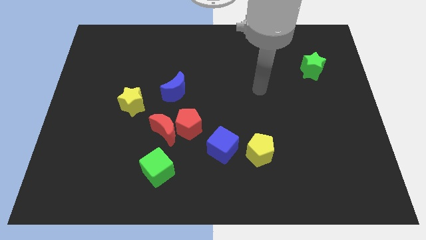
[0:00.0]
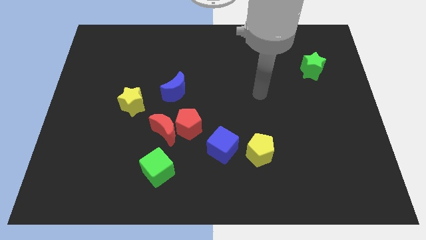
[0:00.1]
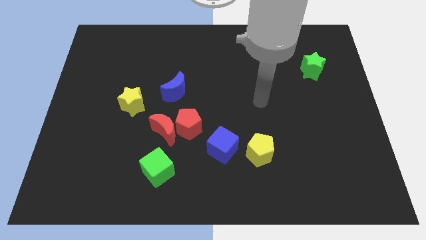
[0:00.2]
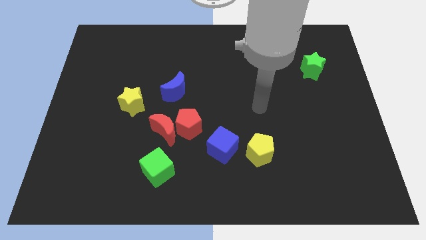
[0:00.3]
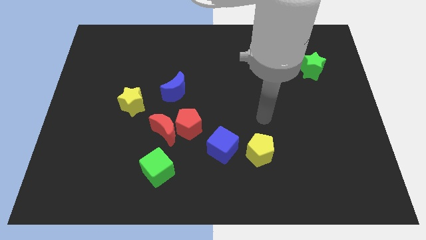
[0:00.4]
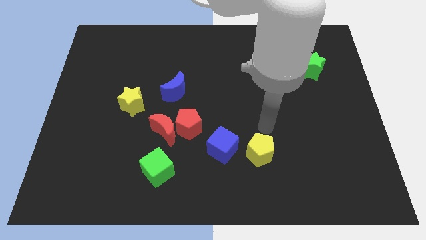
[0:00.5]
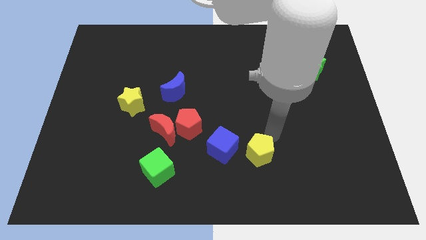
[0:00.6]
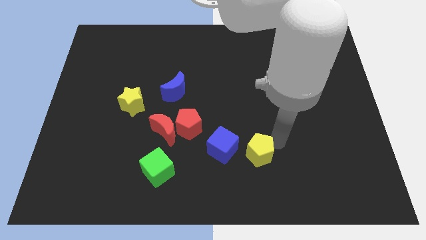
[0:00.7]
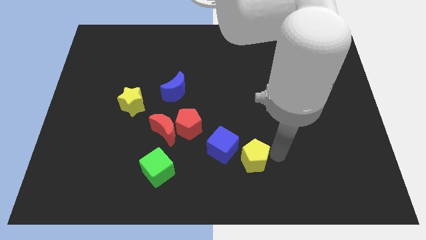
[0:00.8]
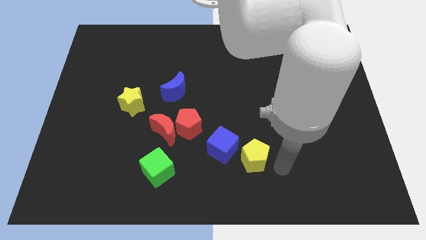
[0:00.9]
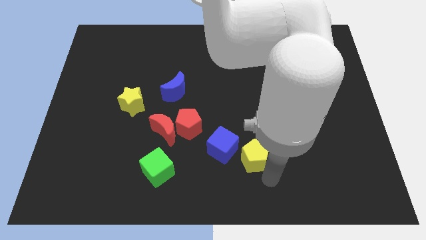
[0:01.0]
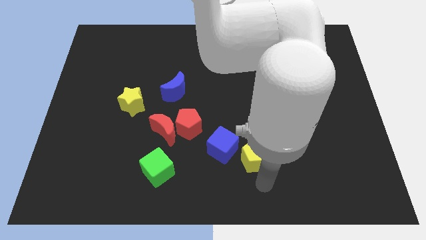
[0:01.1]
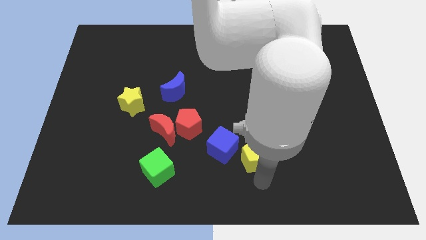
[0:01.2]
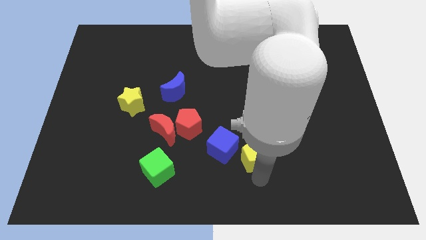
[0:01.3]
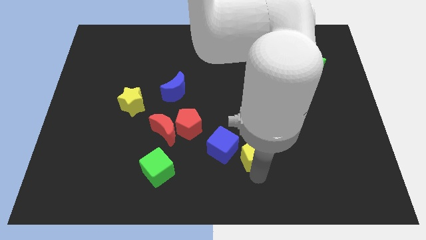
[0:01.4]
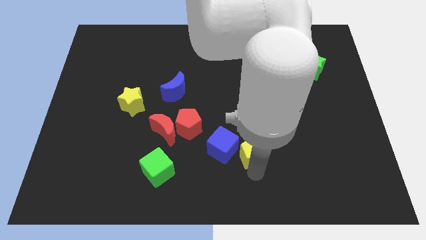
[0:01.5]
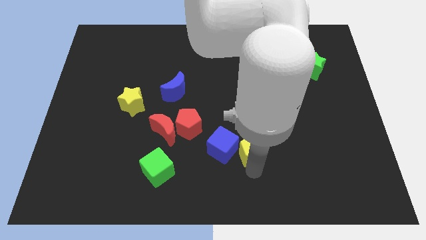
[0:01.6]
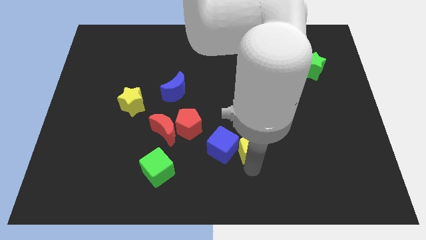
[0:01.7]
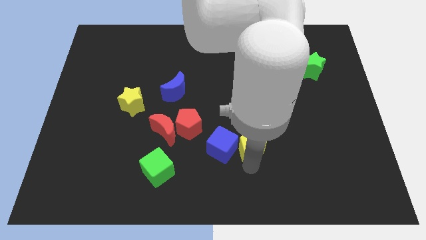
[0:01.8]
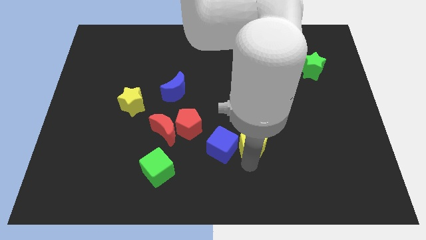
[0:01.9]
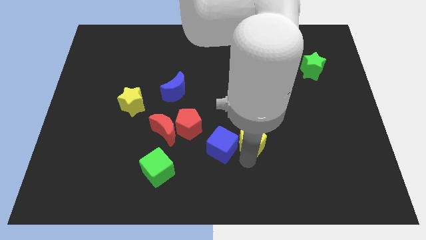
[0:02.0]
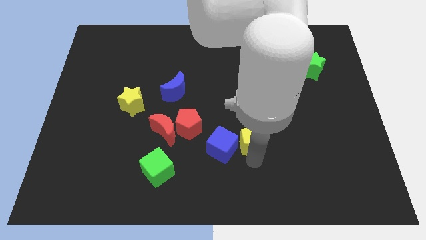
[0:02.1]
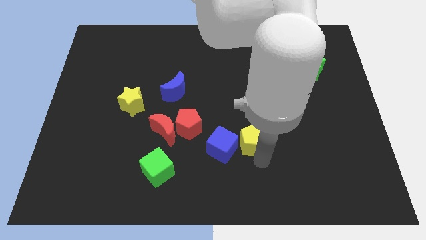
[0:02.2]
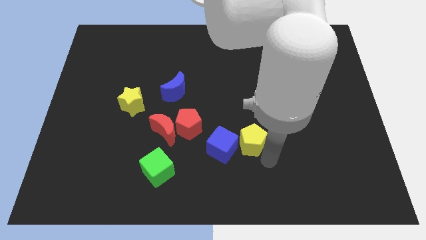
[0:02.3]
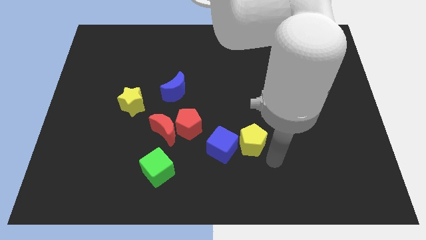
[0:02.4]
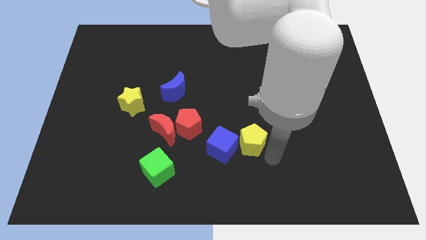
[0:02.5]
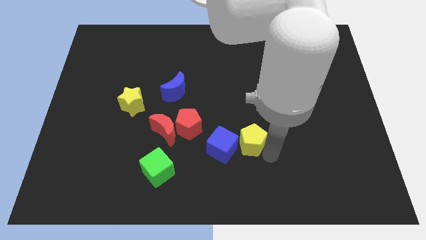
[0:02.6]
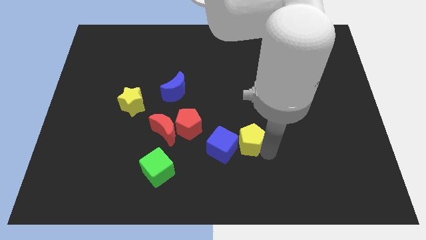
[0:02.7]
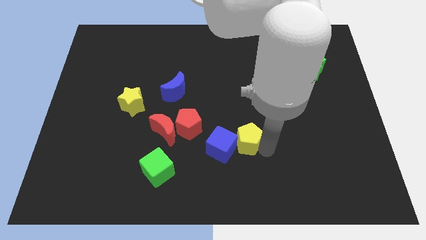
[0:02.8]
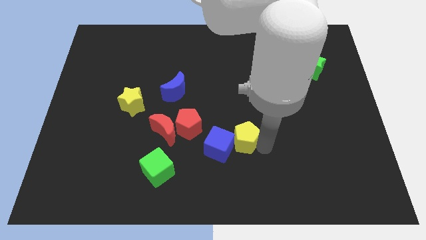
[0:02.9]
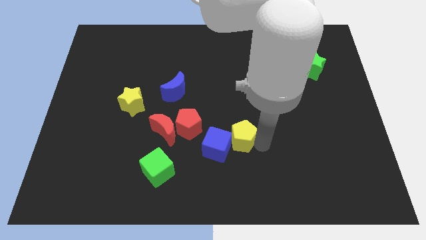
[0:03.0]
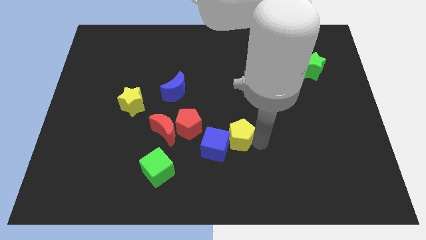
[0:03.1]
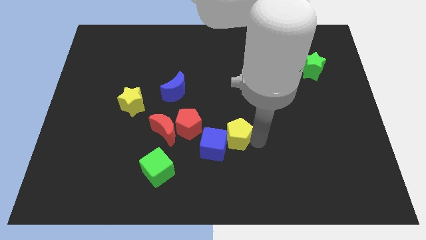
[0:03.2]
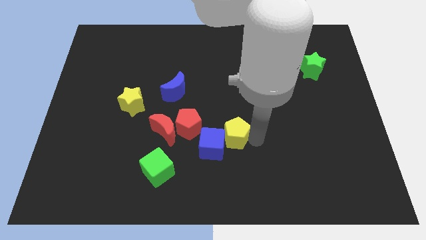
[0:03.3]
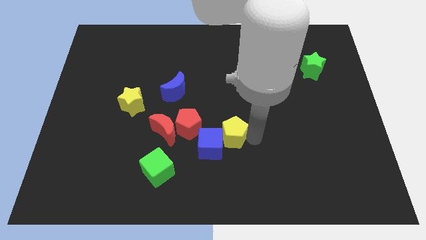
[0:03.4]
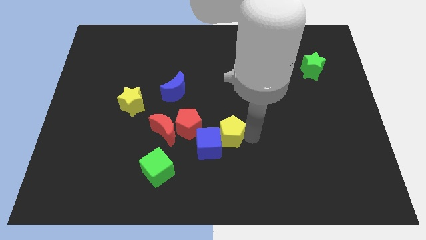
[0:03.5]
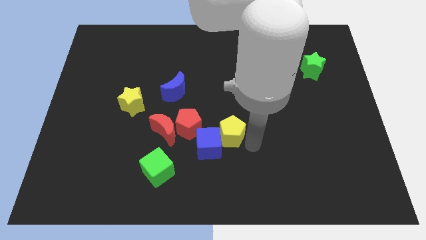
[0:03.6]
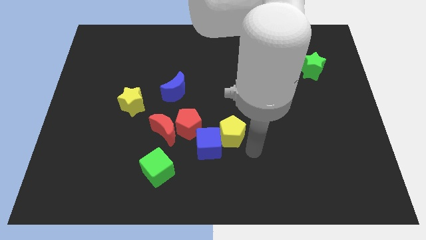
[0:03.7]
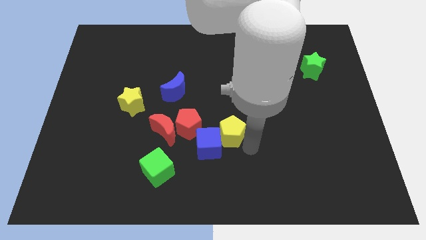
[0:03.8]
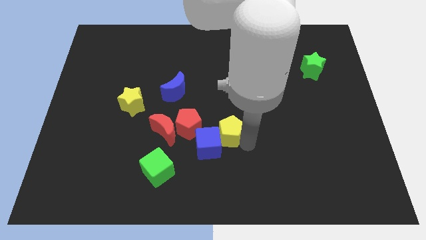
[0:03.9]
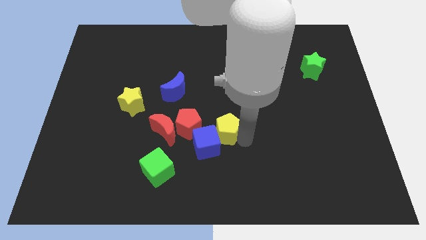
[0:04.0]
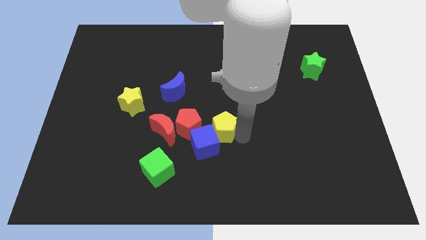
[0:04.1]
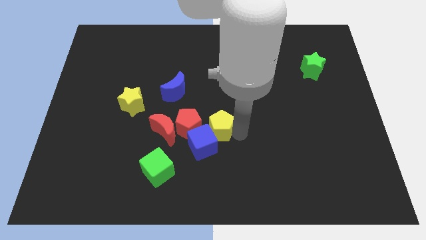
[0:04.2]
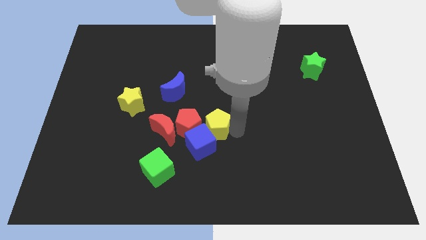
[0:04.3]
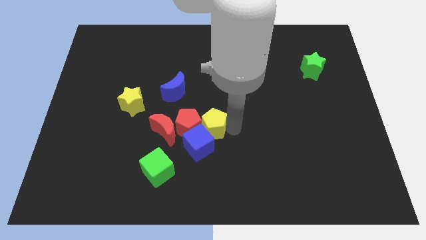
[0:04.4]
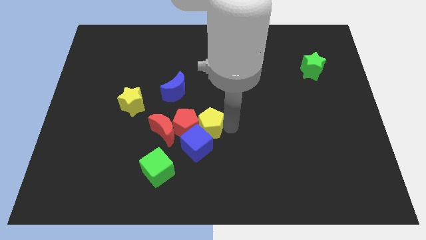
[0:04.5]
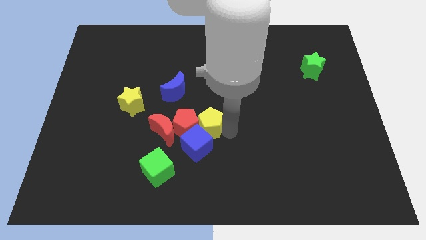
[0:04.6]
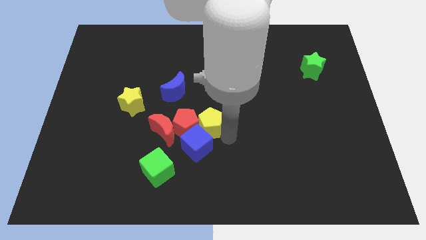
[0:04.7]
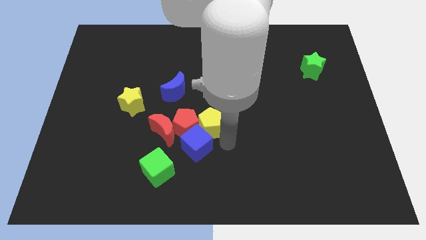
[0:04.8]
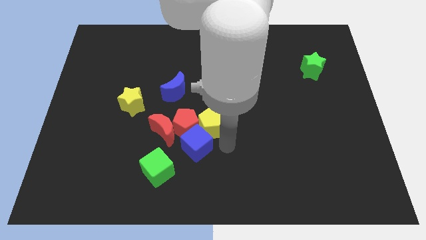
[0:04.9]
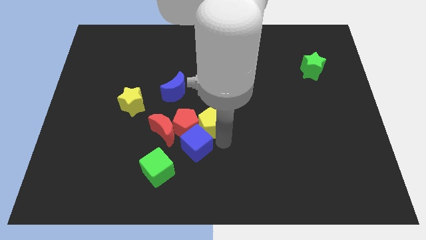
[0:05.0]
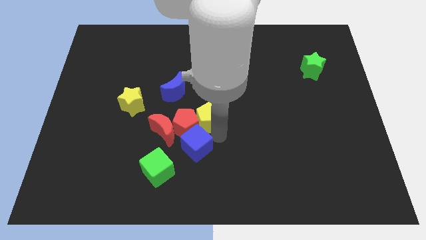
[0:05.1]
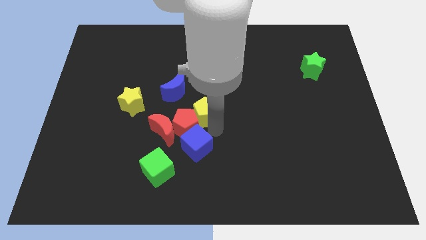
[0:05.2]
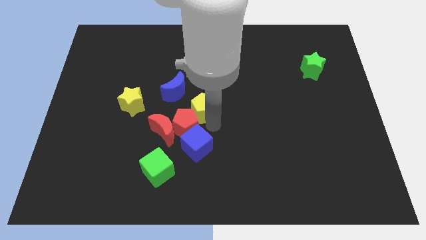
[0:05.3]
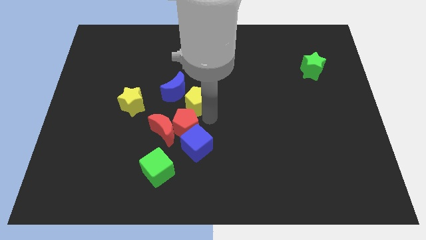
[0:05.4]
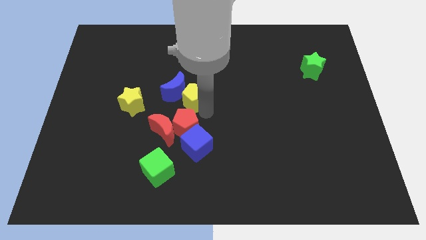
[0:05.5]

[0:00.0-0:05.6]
put the yellow pentagon next to the blue moon

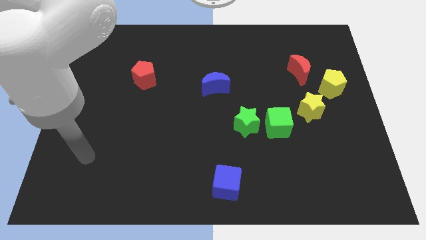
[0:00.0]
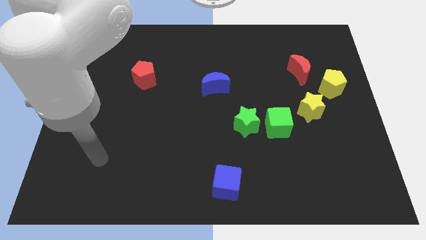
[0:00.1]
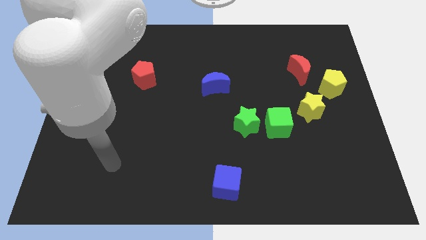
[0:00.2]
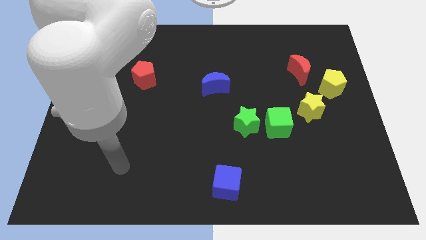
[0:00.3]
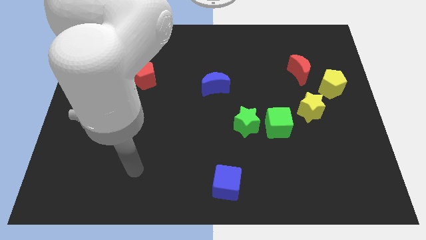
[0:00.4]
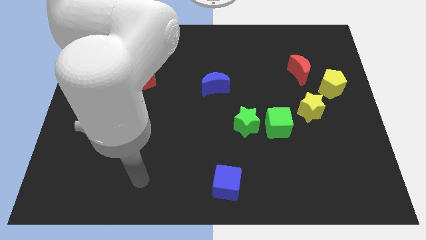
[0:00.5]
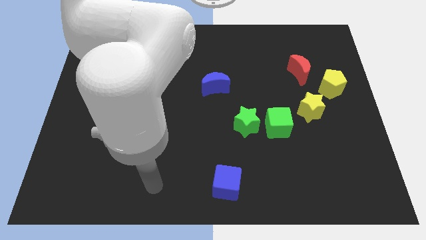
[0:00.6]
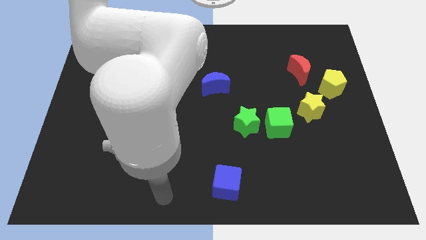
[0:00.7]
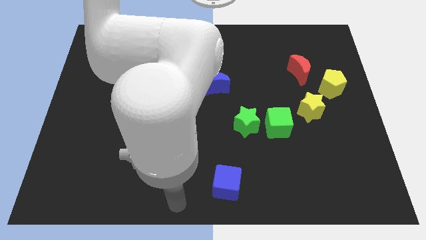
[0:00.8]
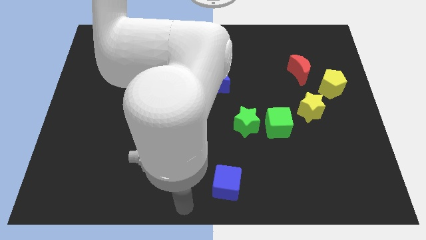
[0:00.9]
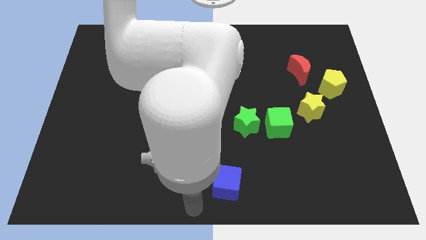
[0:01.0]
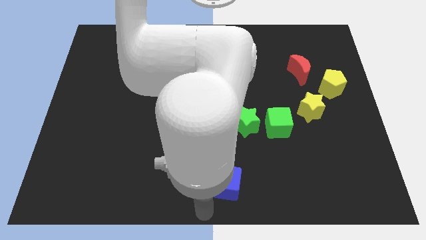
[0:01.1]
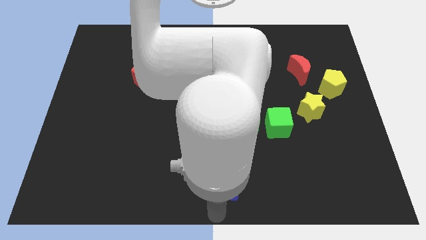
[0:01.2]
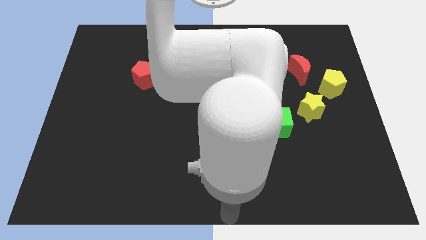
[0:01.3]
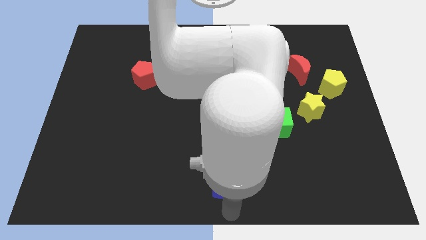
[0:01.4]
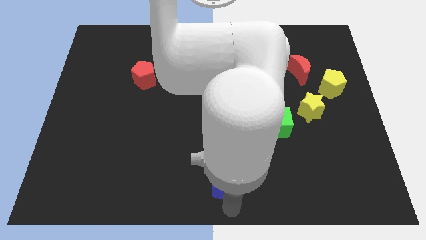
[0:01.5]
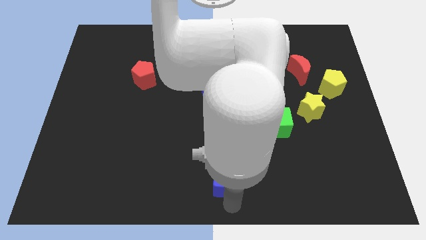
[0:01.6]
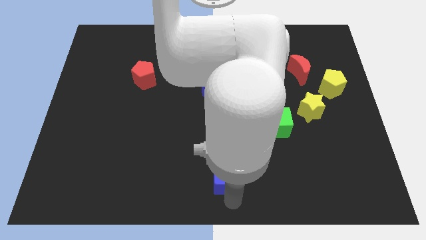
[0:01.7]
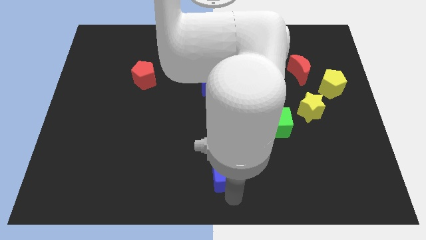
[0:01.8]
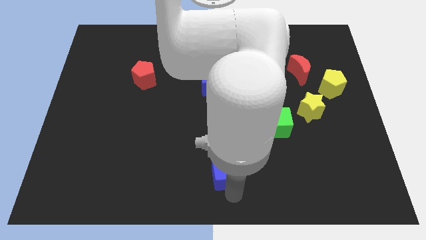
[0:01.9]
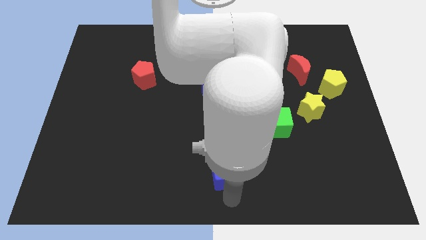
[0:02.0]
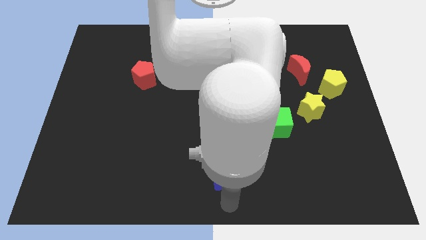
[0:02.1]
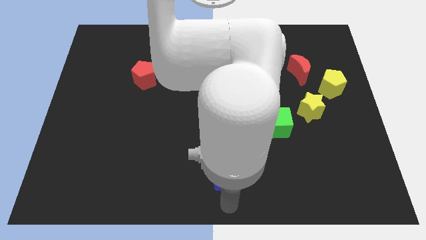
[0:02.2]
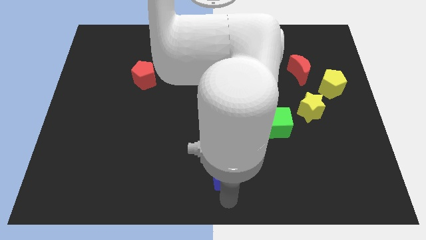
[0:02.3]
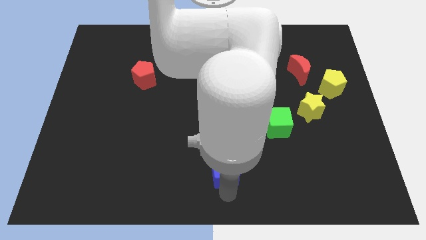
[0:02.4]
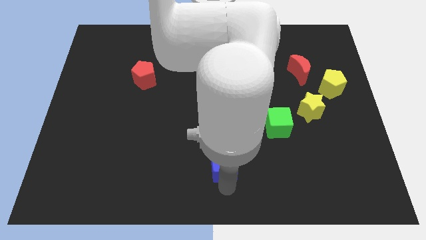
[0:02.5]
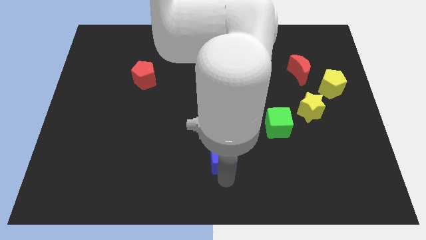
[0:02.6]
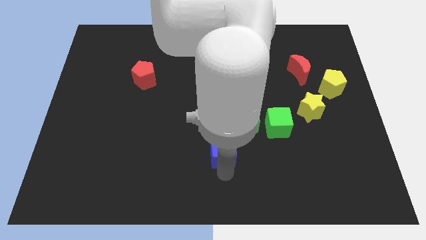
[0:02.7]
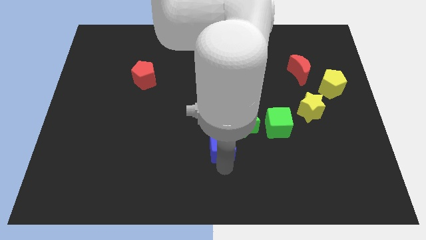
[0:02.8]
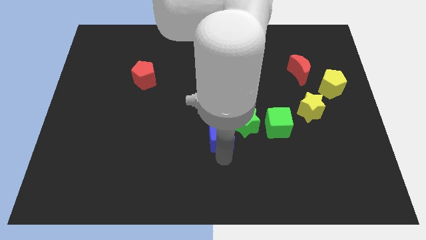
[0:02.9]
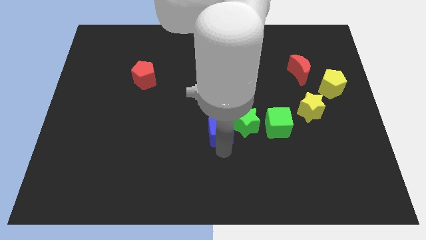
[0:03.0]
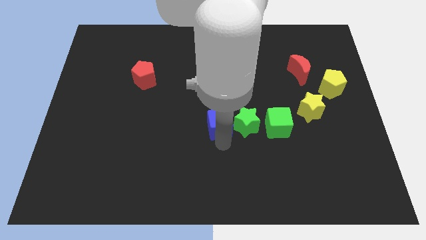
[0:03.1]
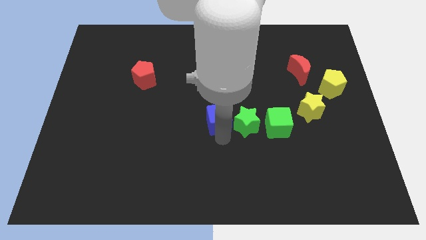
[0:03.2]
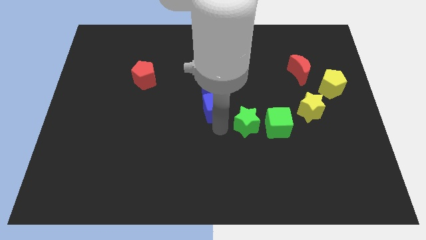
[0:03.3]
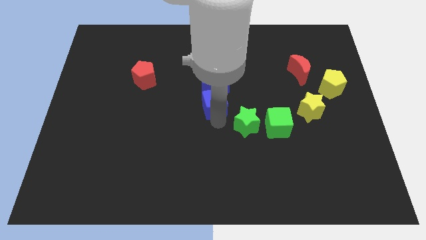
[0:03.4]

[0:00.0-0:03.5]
push the blue cube close to the blue moon
